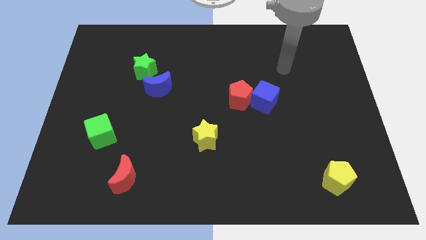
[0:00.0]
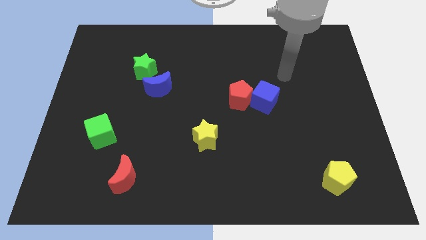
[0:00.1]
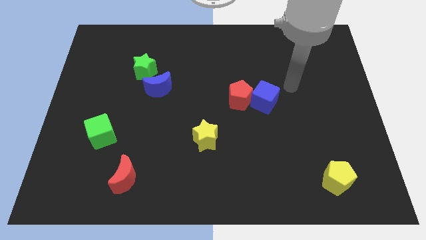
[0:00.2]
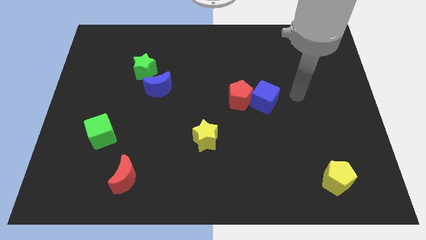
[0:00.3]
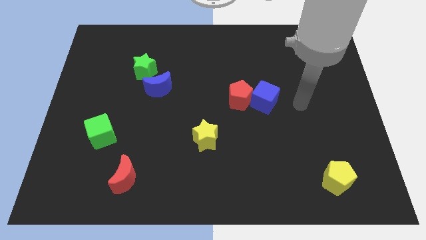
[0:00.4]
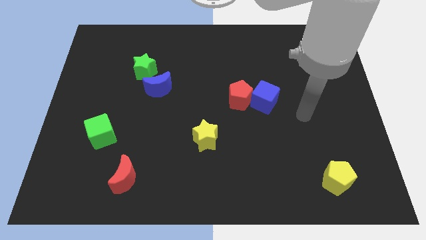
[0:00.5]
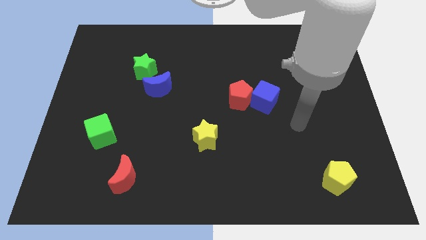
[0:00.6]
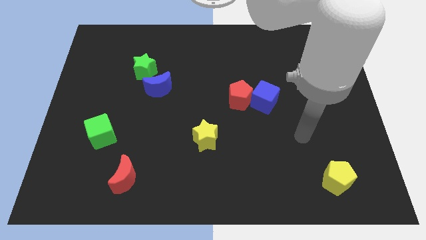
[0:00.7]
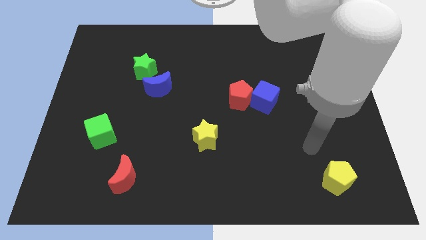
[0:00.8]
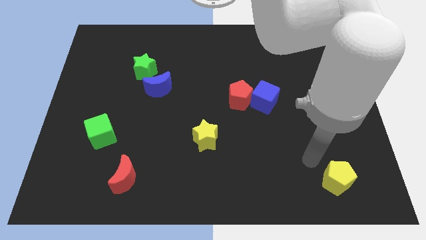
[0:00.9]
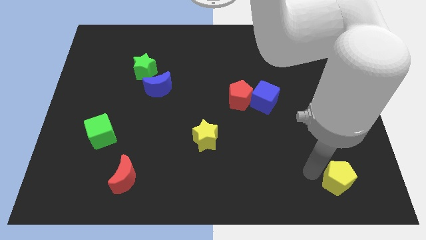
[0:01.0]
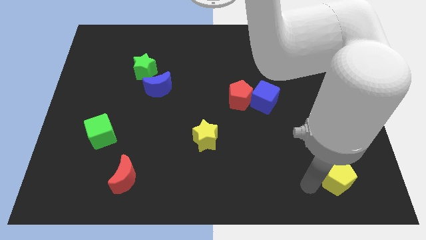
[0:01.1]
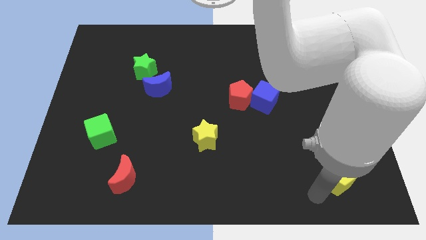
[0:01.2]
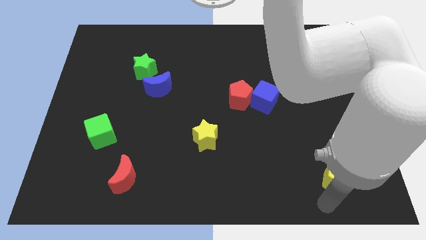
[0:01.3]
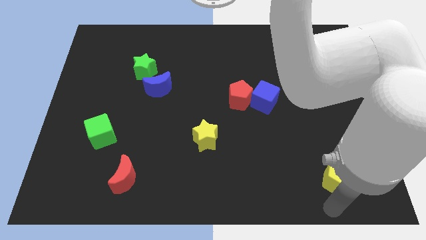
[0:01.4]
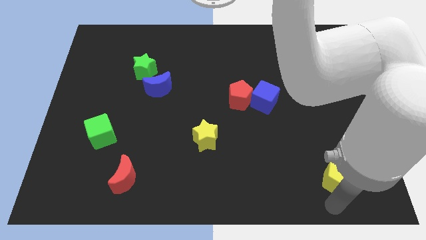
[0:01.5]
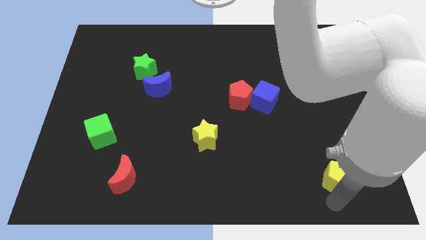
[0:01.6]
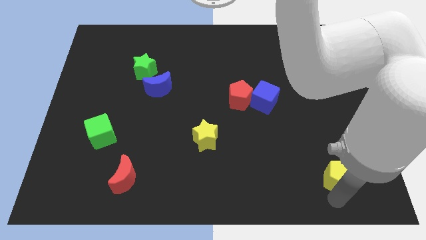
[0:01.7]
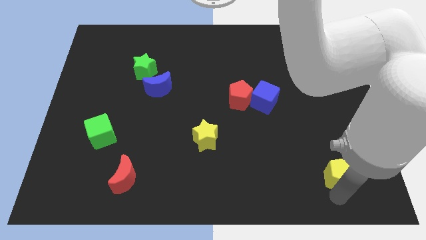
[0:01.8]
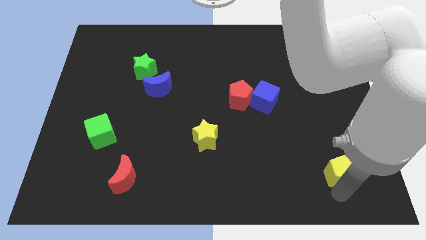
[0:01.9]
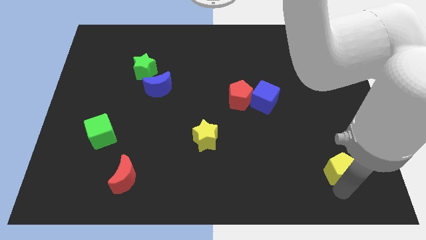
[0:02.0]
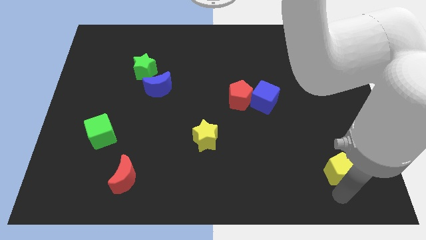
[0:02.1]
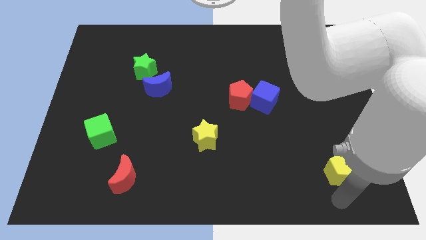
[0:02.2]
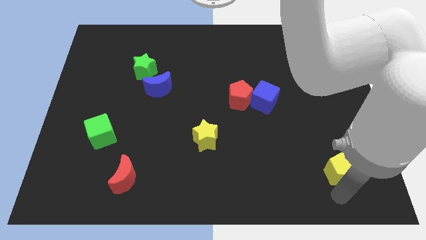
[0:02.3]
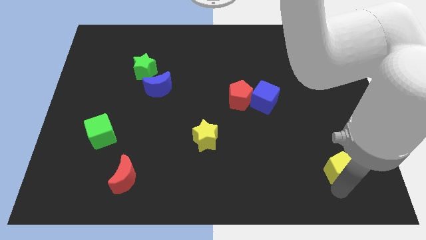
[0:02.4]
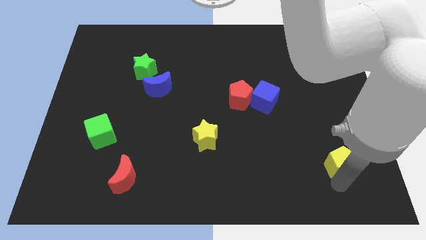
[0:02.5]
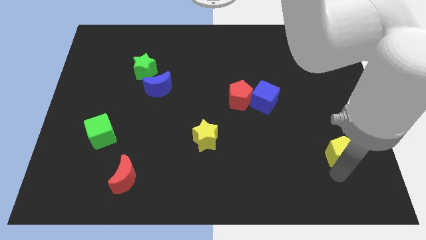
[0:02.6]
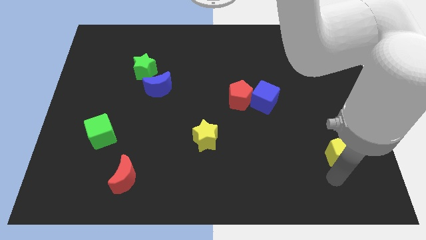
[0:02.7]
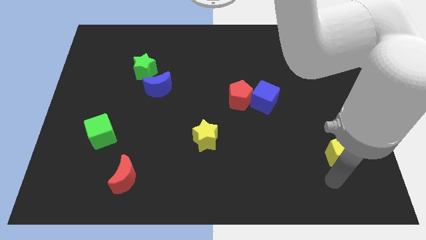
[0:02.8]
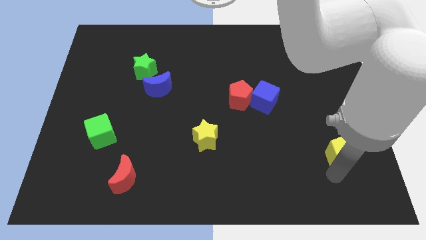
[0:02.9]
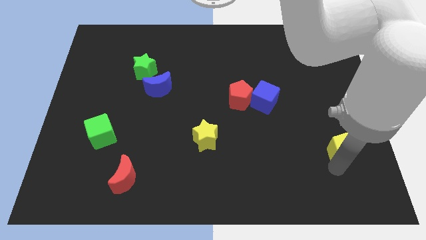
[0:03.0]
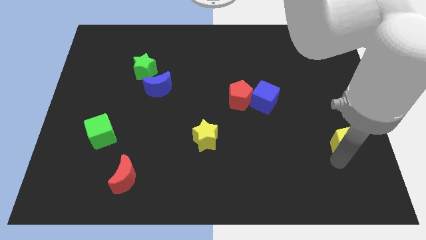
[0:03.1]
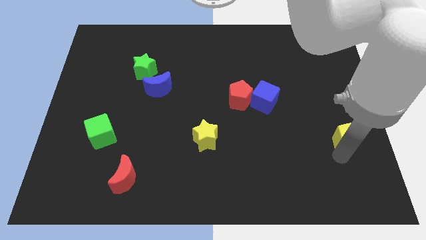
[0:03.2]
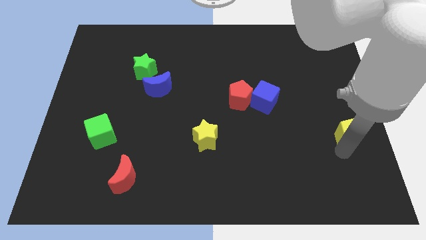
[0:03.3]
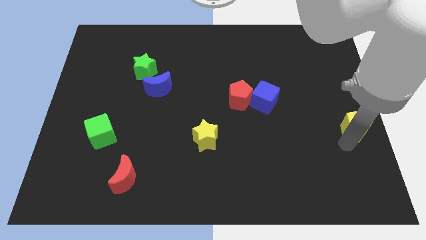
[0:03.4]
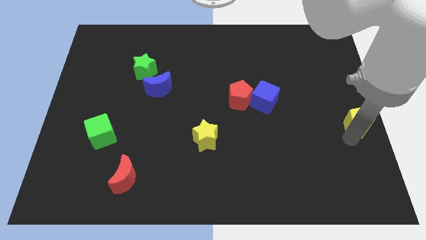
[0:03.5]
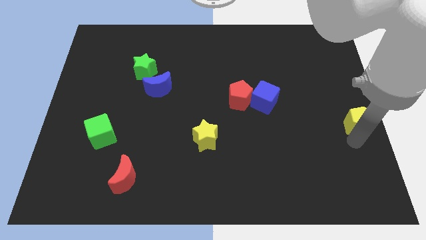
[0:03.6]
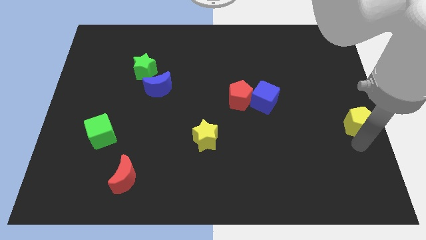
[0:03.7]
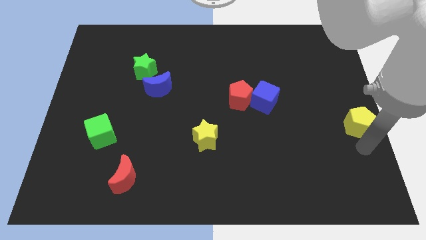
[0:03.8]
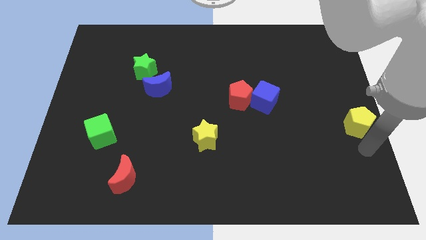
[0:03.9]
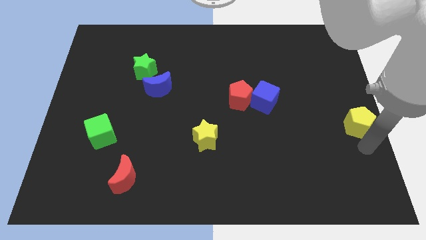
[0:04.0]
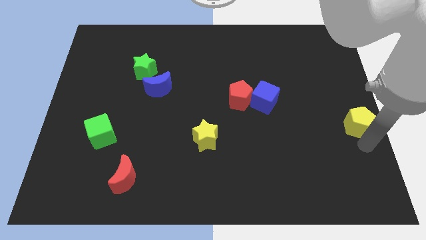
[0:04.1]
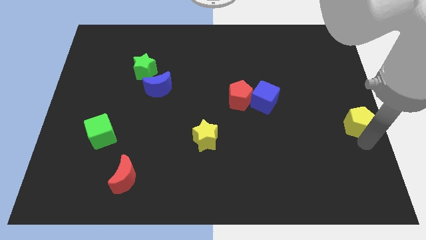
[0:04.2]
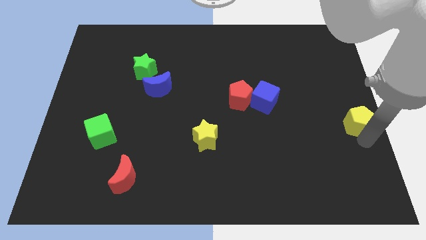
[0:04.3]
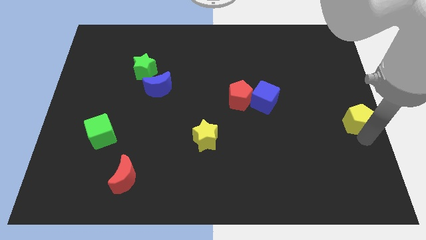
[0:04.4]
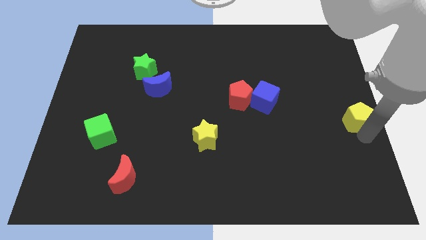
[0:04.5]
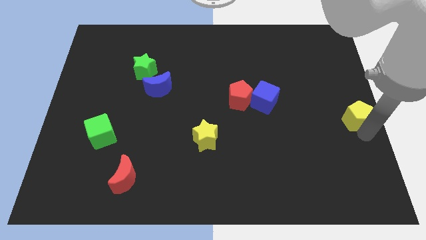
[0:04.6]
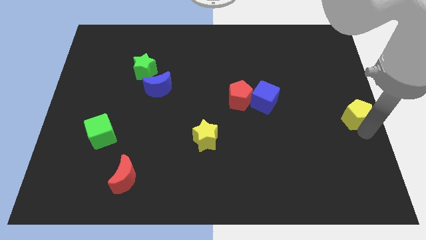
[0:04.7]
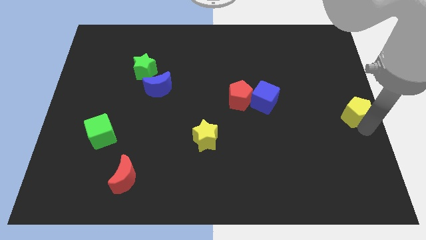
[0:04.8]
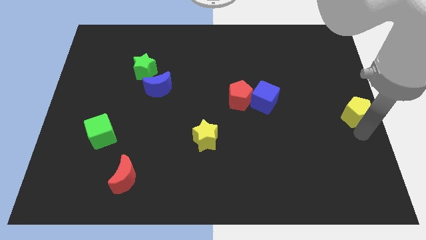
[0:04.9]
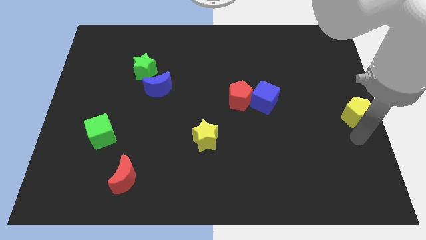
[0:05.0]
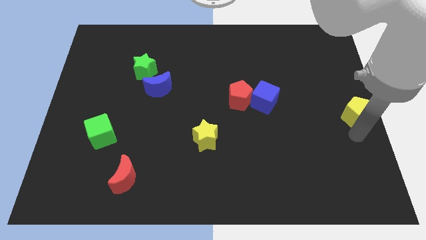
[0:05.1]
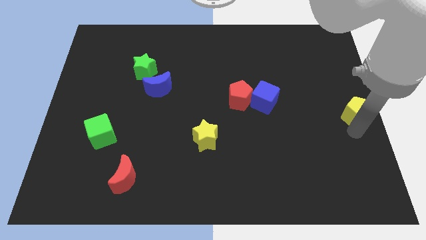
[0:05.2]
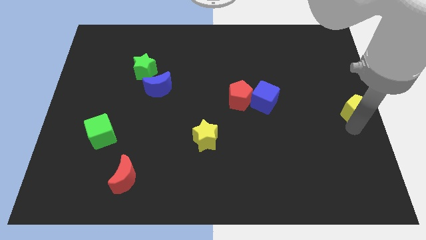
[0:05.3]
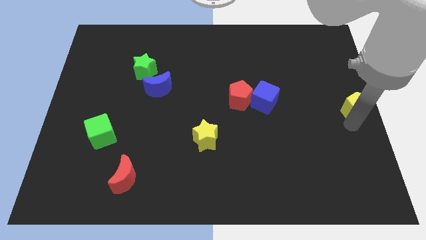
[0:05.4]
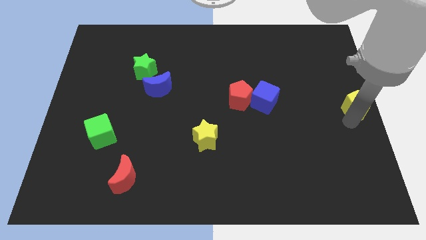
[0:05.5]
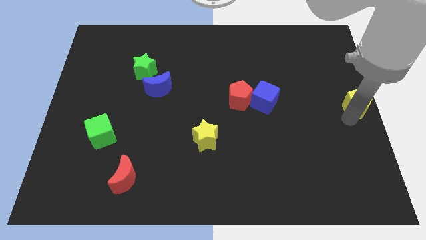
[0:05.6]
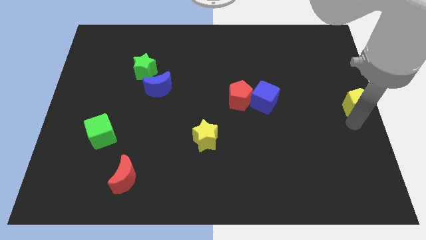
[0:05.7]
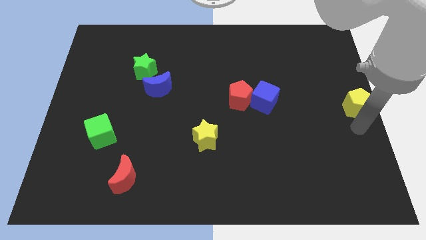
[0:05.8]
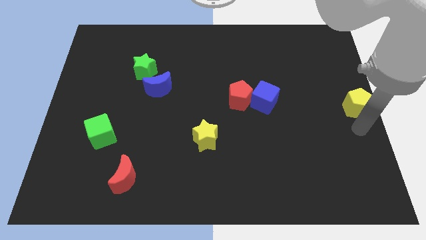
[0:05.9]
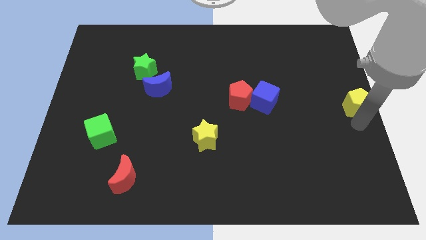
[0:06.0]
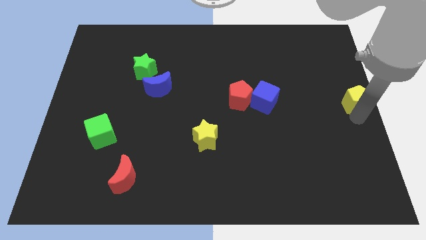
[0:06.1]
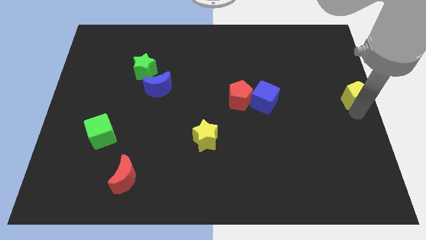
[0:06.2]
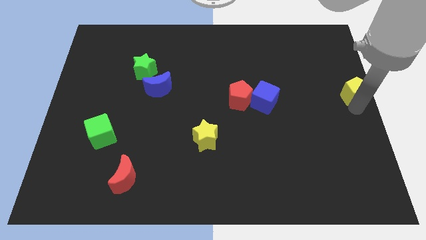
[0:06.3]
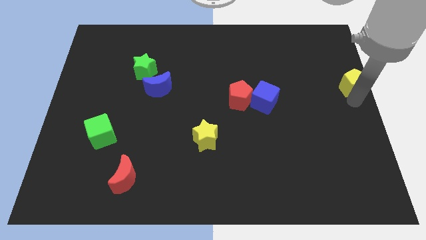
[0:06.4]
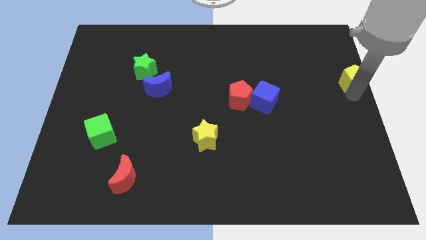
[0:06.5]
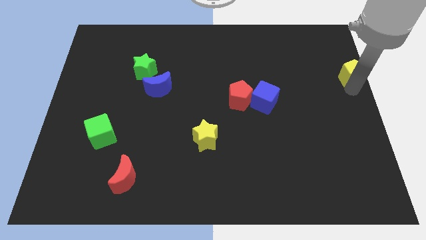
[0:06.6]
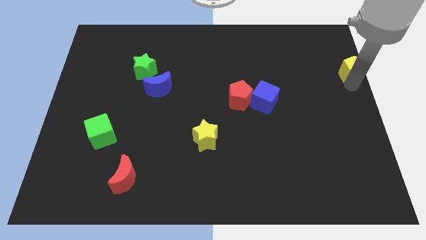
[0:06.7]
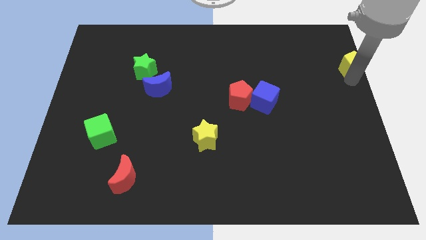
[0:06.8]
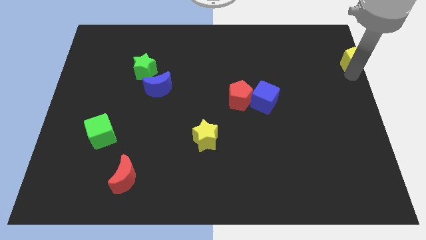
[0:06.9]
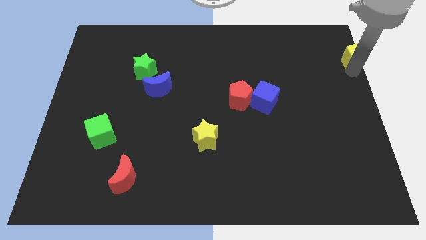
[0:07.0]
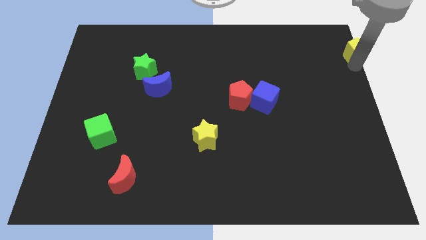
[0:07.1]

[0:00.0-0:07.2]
push the yellow pentagon to the top right corner
